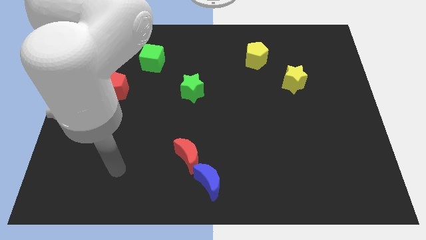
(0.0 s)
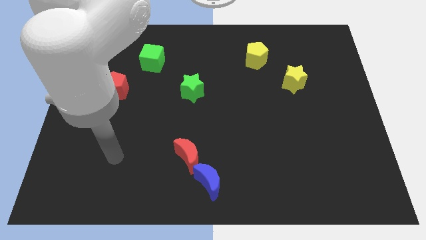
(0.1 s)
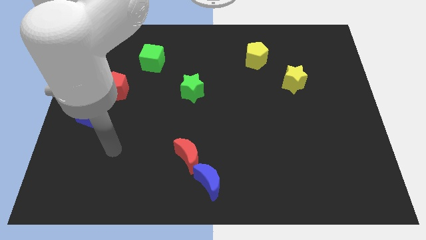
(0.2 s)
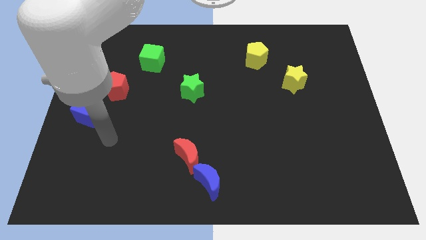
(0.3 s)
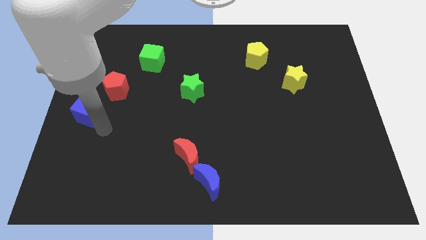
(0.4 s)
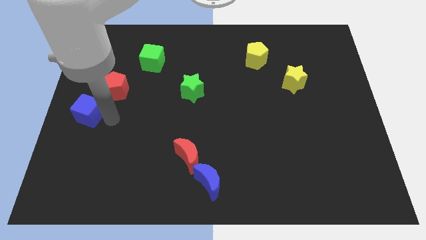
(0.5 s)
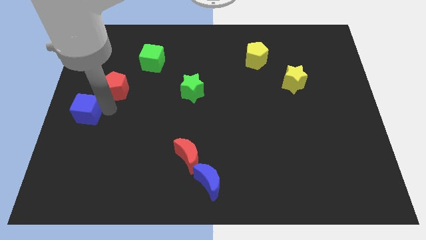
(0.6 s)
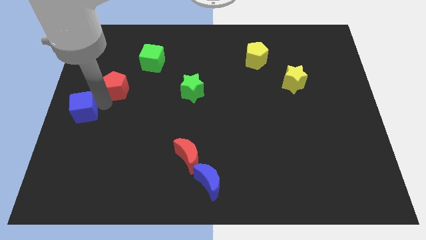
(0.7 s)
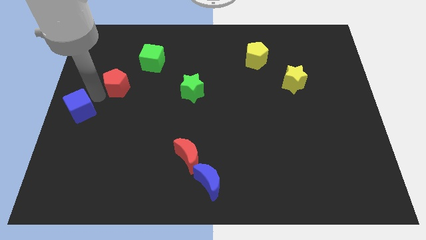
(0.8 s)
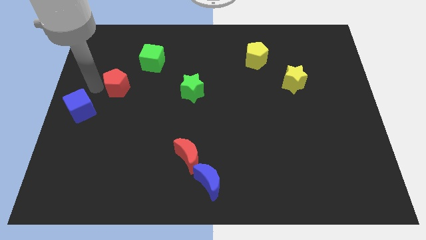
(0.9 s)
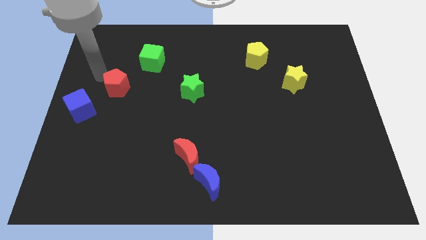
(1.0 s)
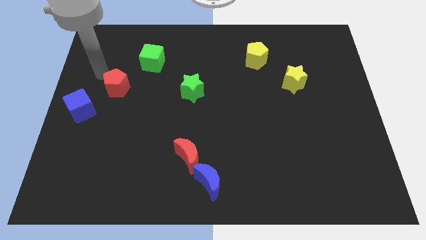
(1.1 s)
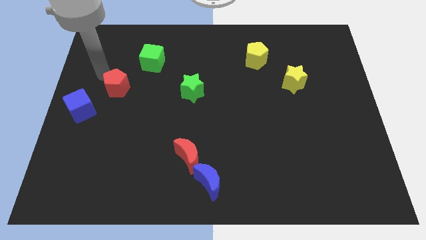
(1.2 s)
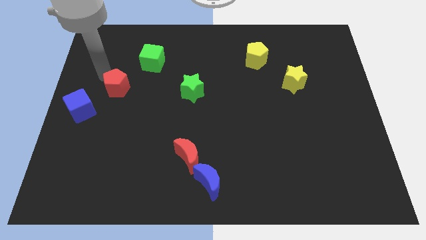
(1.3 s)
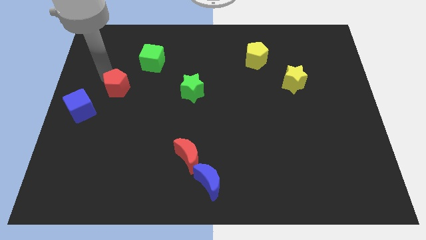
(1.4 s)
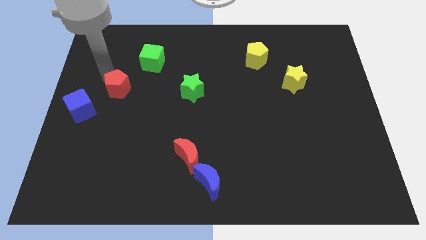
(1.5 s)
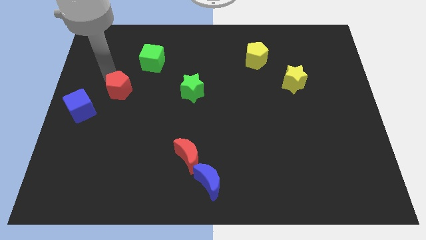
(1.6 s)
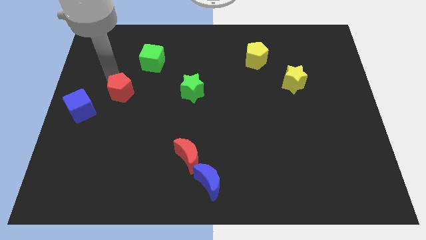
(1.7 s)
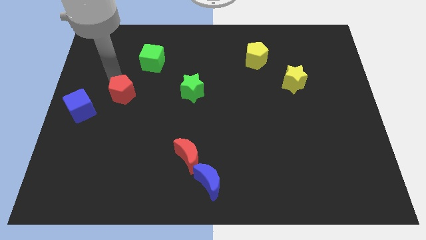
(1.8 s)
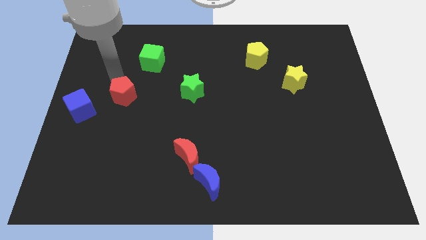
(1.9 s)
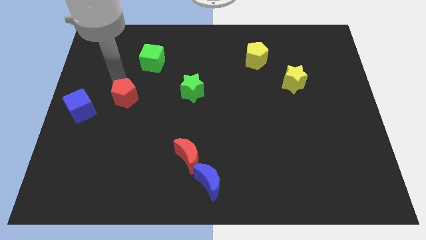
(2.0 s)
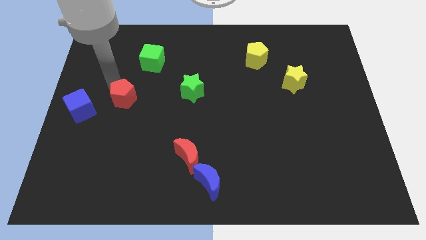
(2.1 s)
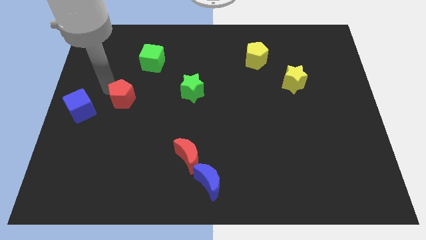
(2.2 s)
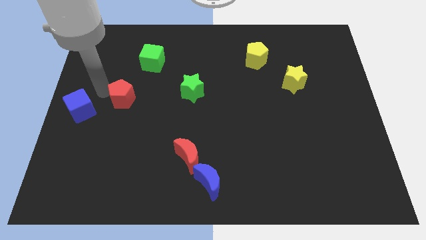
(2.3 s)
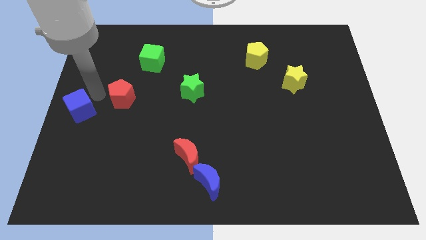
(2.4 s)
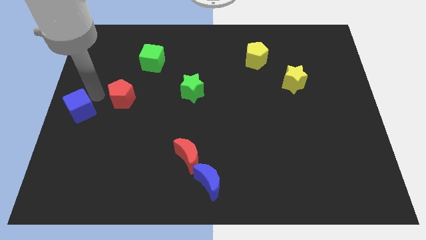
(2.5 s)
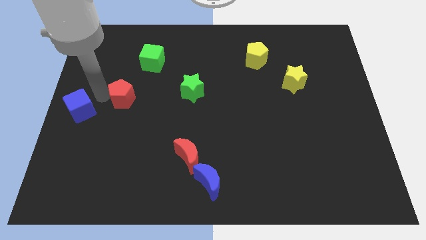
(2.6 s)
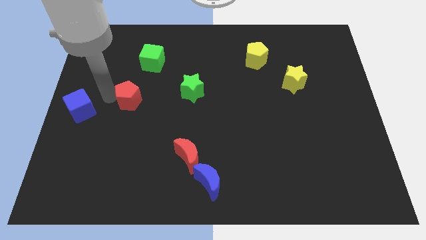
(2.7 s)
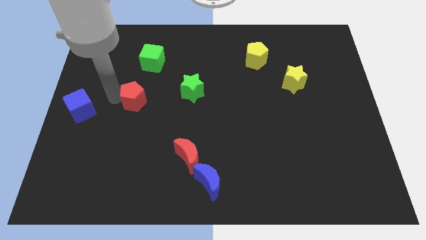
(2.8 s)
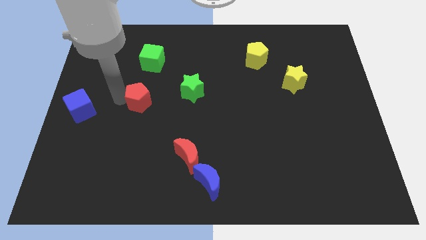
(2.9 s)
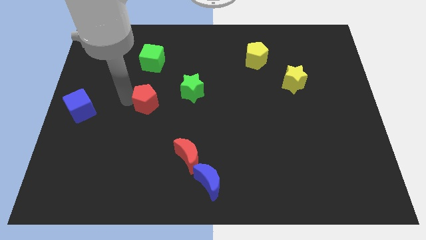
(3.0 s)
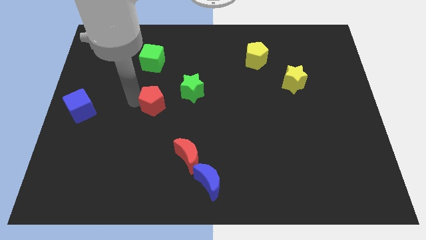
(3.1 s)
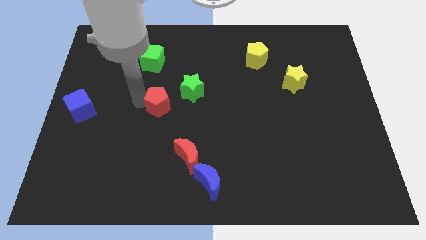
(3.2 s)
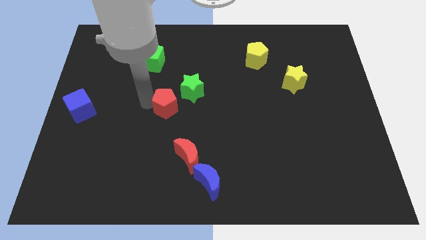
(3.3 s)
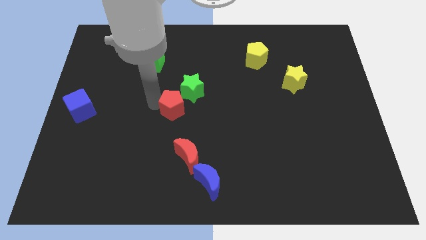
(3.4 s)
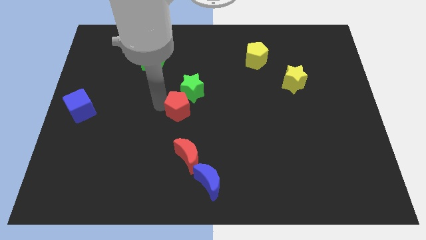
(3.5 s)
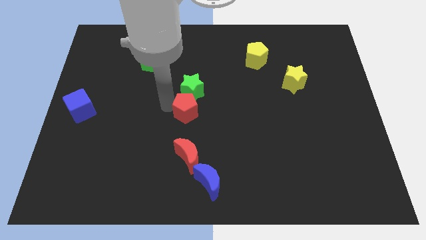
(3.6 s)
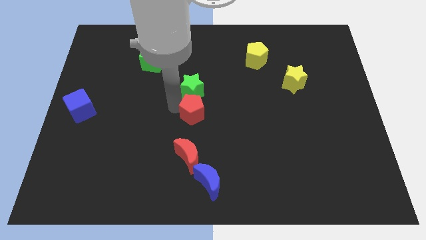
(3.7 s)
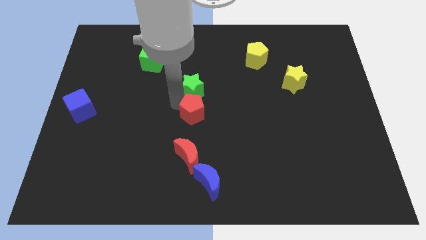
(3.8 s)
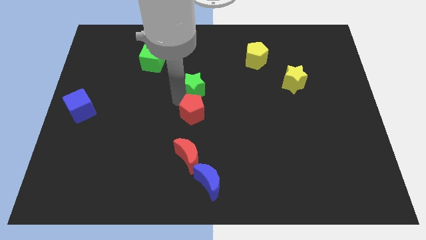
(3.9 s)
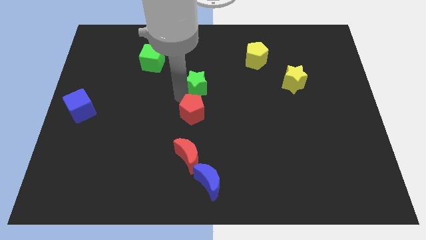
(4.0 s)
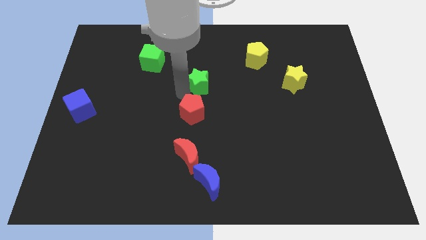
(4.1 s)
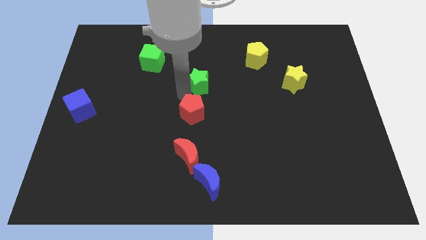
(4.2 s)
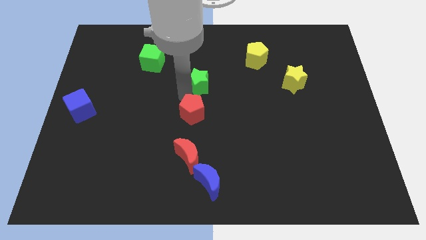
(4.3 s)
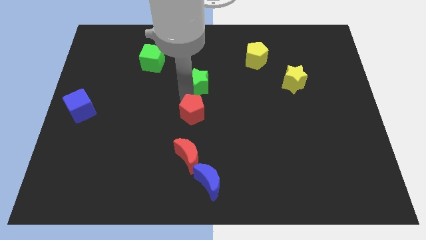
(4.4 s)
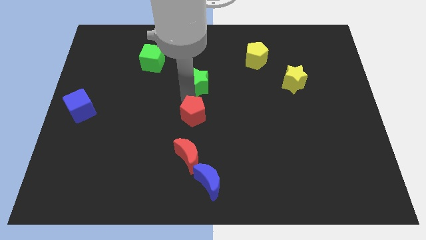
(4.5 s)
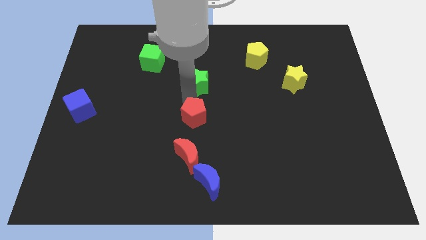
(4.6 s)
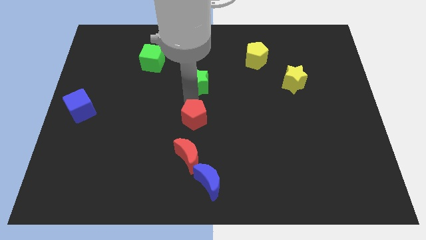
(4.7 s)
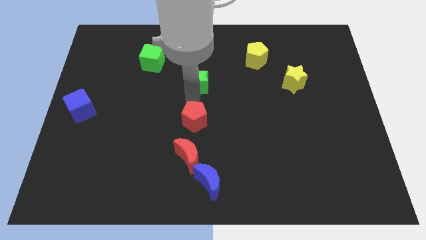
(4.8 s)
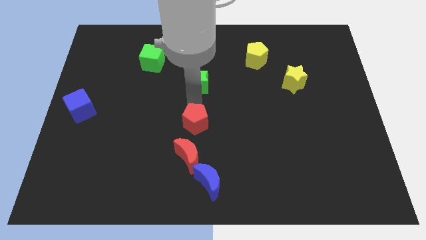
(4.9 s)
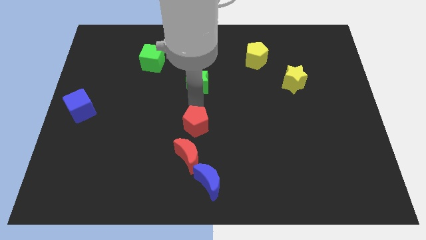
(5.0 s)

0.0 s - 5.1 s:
push the red pentagon to the top right side of the red moon

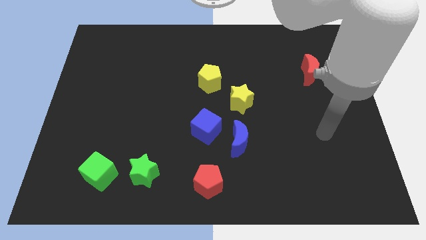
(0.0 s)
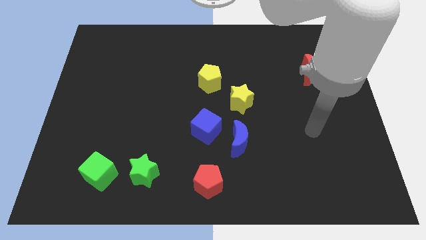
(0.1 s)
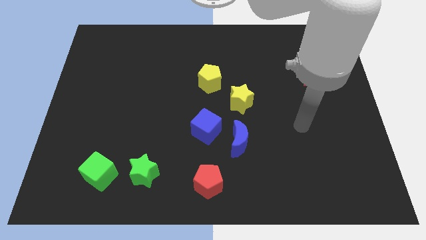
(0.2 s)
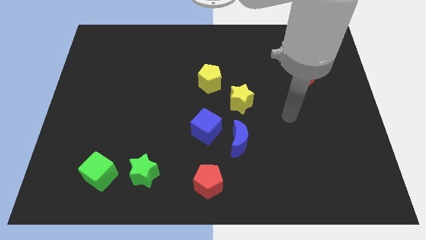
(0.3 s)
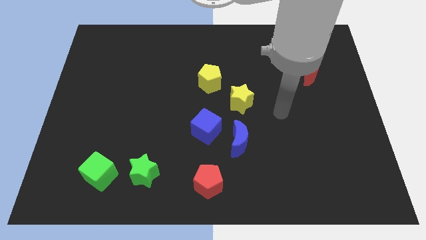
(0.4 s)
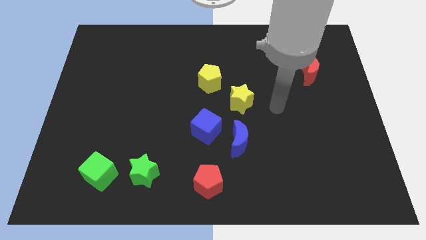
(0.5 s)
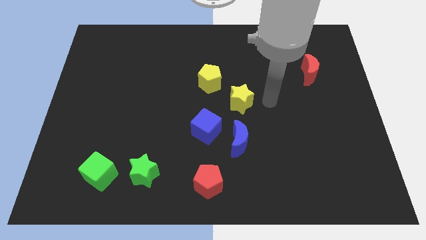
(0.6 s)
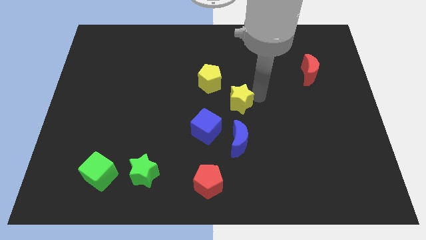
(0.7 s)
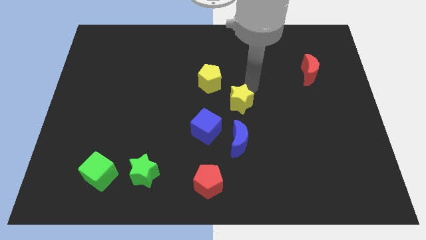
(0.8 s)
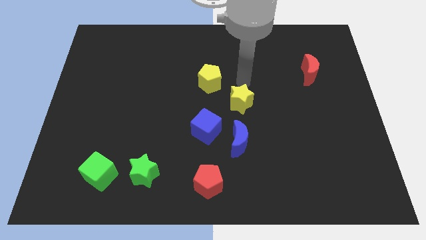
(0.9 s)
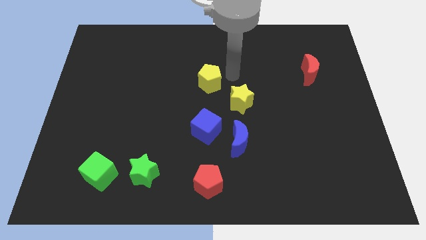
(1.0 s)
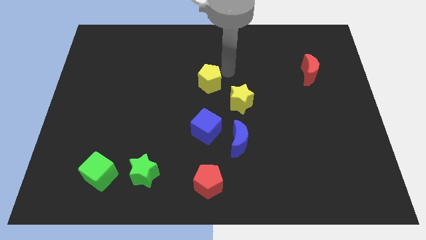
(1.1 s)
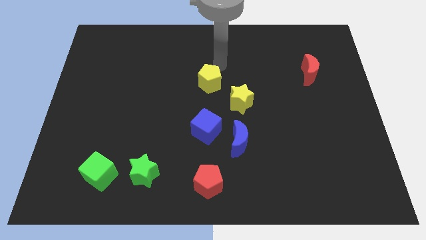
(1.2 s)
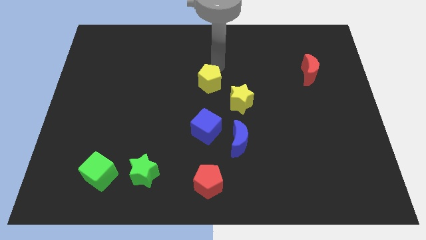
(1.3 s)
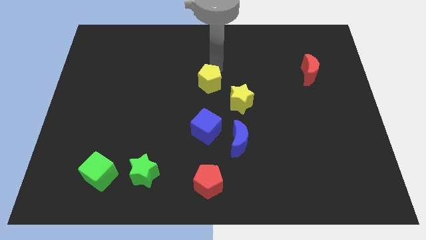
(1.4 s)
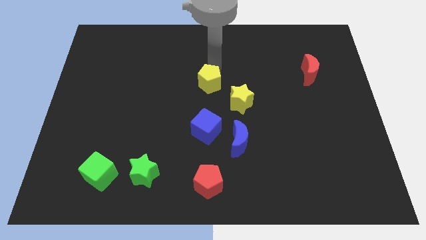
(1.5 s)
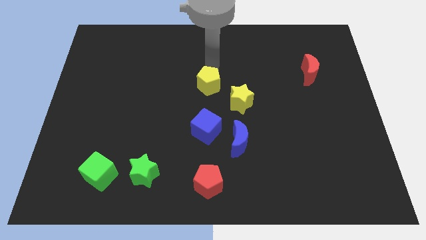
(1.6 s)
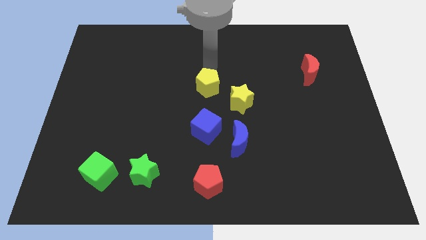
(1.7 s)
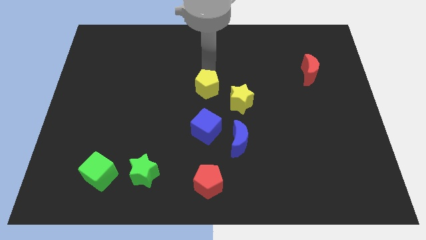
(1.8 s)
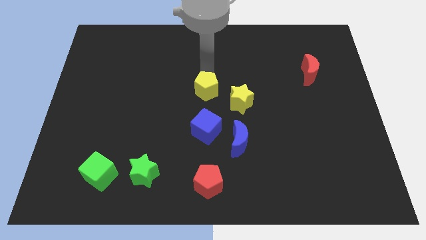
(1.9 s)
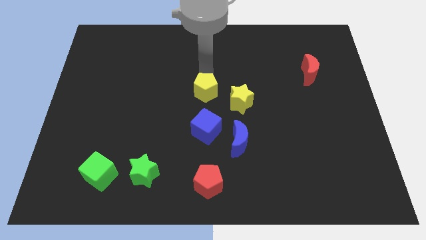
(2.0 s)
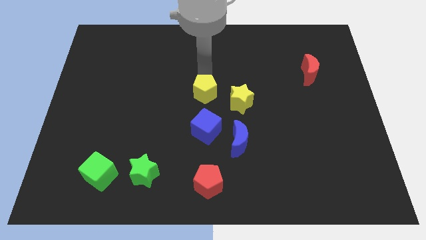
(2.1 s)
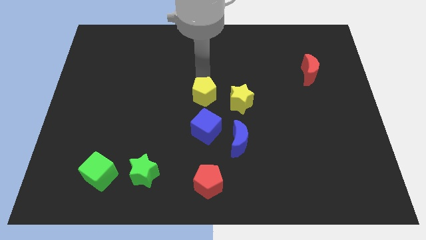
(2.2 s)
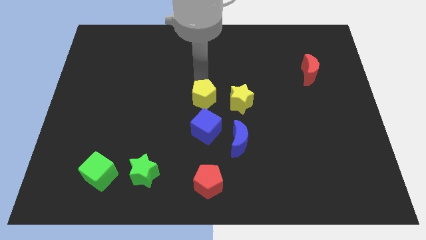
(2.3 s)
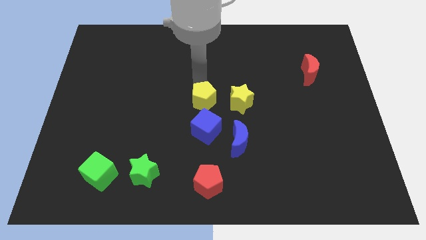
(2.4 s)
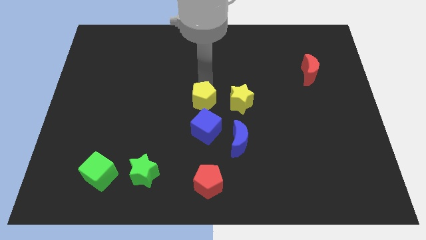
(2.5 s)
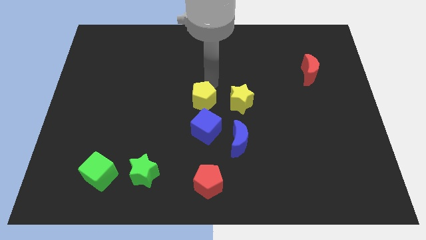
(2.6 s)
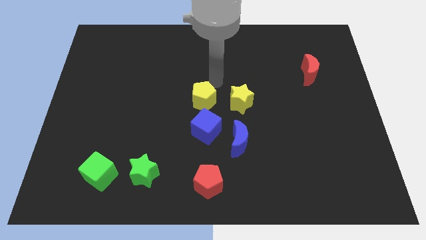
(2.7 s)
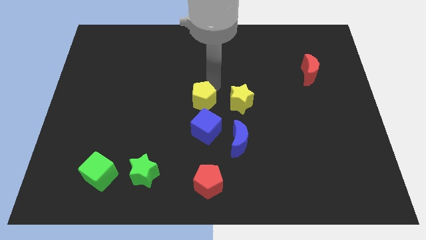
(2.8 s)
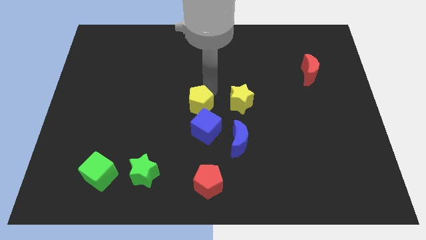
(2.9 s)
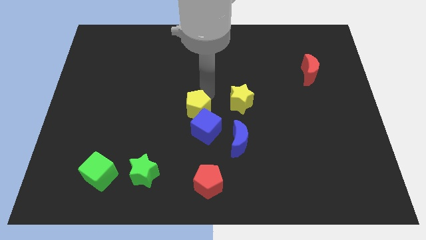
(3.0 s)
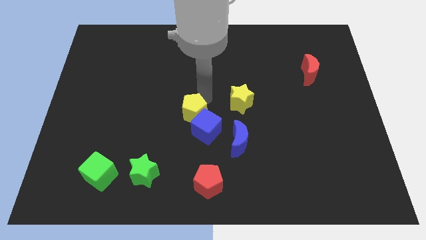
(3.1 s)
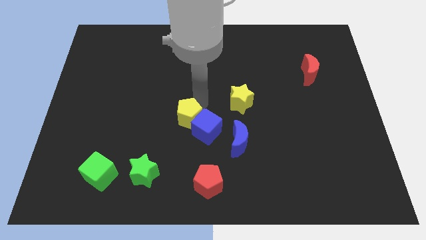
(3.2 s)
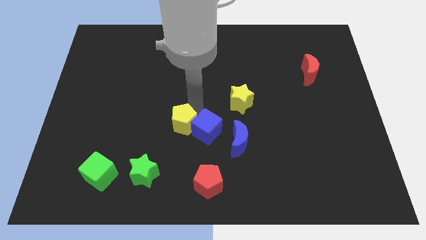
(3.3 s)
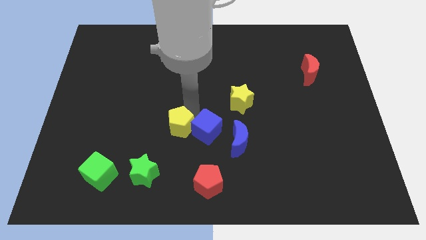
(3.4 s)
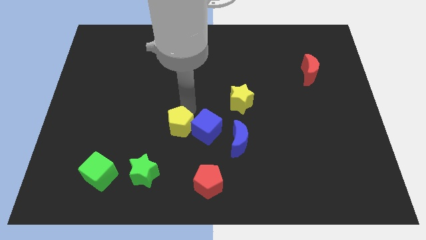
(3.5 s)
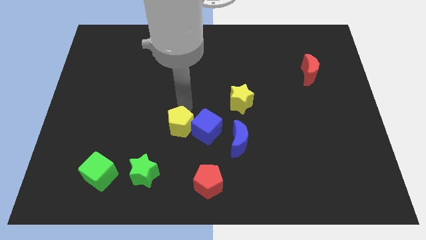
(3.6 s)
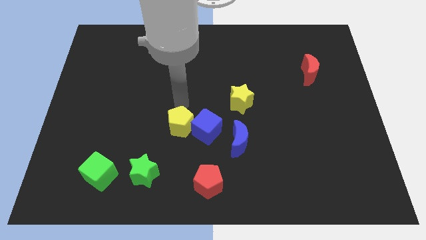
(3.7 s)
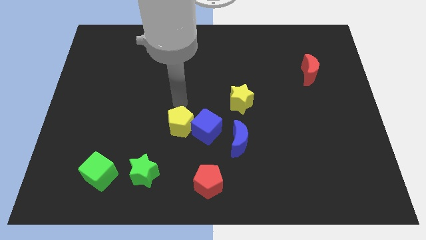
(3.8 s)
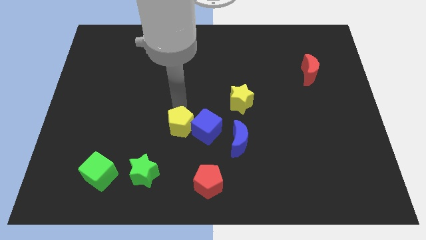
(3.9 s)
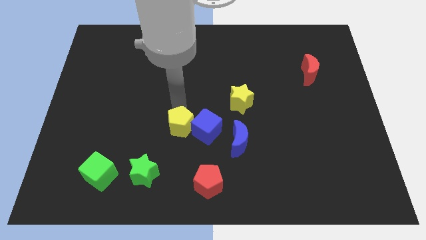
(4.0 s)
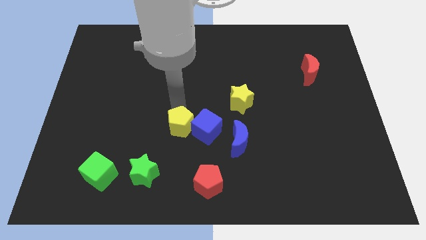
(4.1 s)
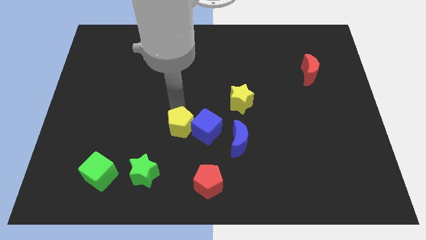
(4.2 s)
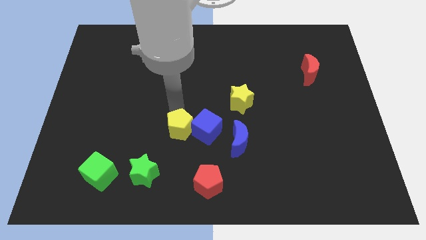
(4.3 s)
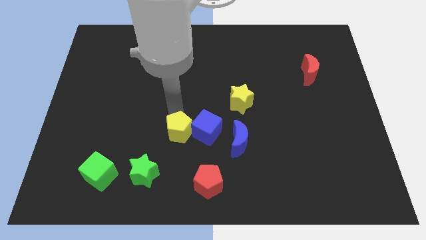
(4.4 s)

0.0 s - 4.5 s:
put the yellow pentagon diagonally up and to the right of the green star
